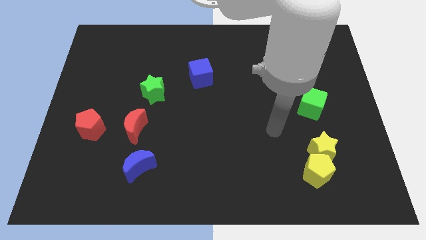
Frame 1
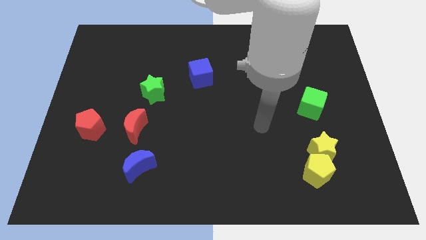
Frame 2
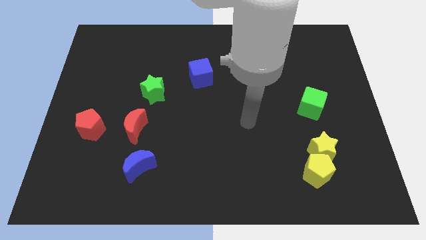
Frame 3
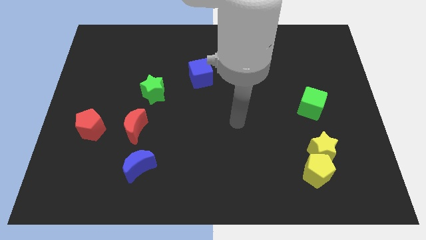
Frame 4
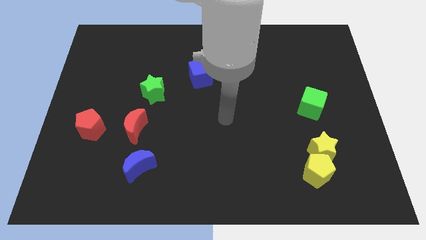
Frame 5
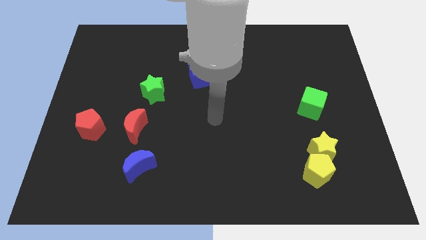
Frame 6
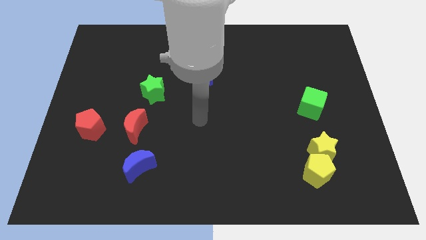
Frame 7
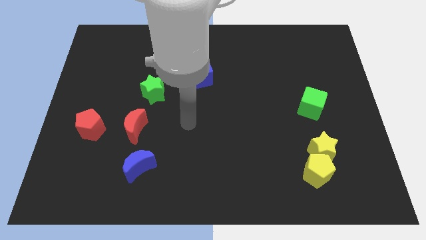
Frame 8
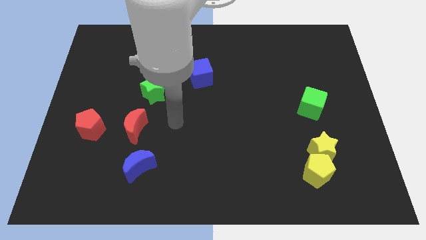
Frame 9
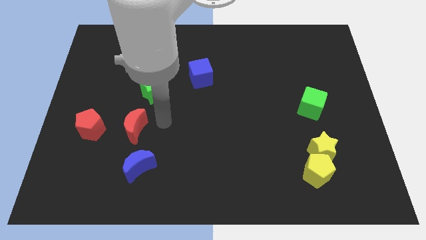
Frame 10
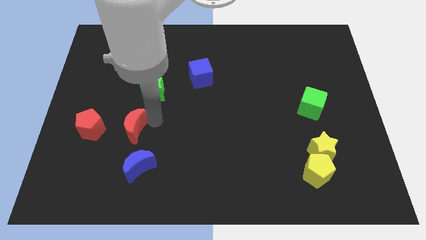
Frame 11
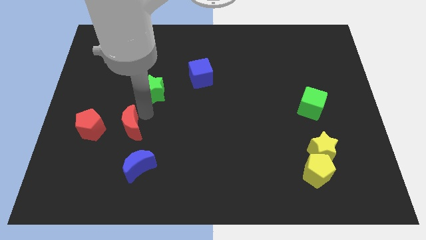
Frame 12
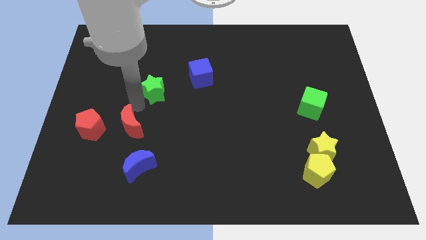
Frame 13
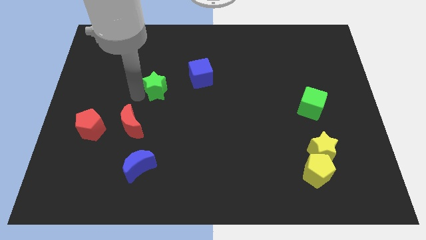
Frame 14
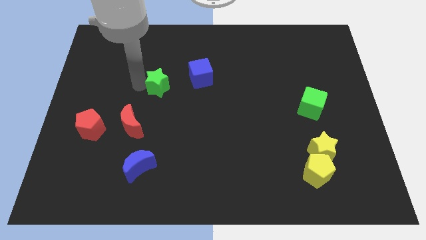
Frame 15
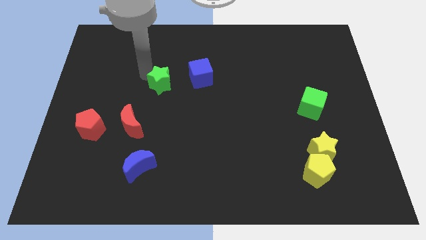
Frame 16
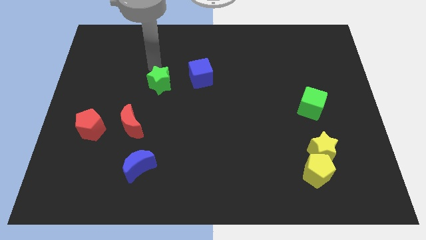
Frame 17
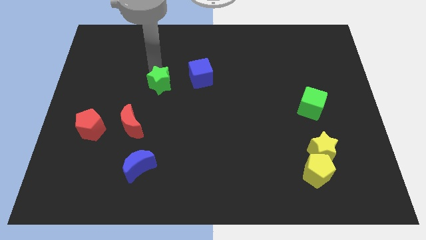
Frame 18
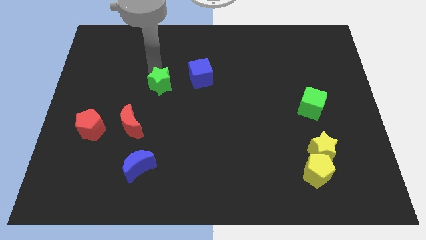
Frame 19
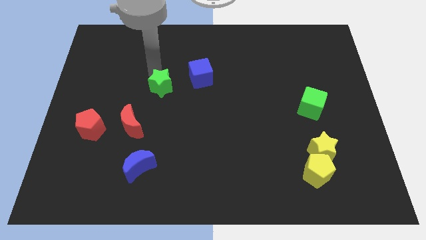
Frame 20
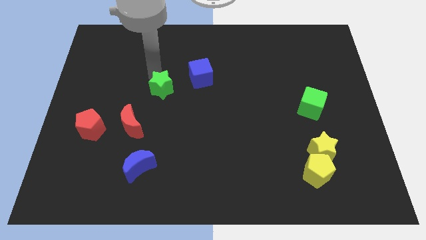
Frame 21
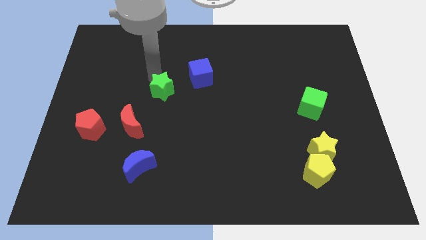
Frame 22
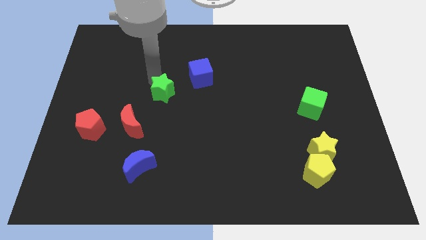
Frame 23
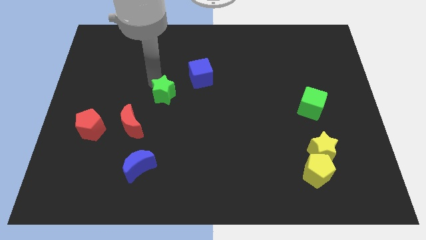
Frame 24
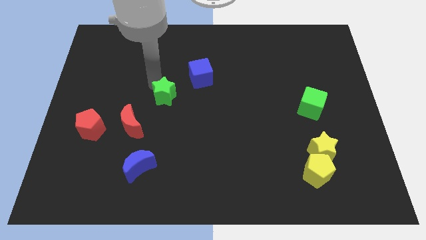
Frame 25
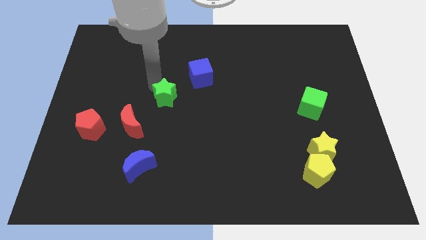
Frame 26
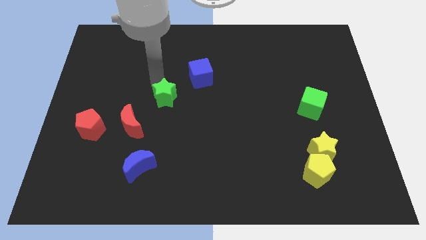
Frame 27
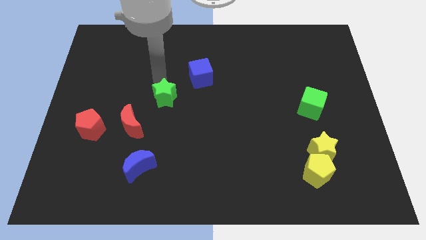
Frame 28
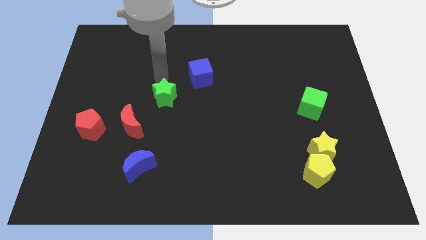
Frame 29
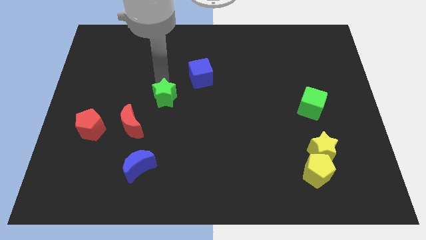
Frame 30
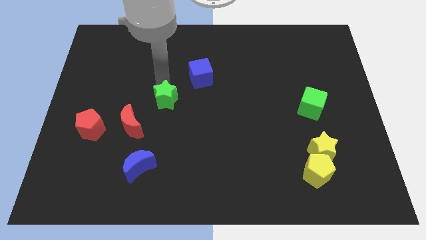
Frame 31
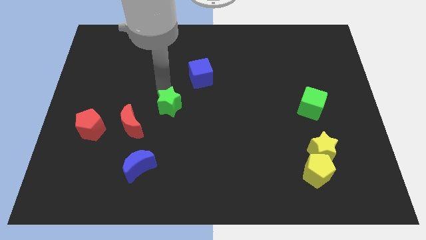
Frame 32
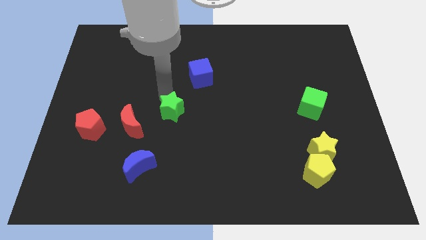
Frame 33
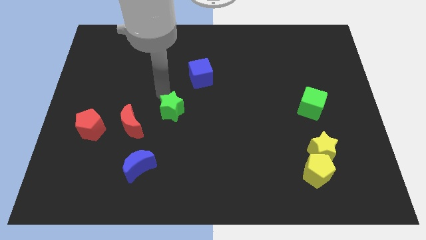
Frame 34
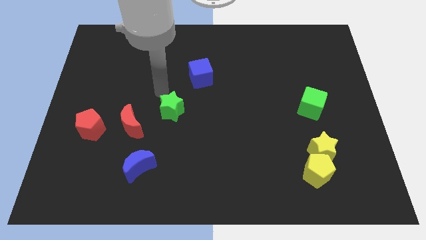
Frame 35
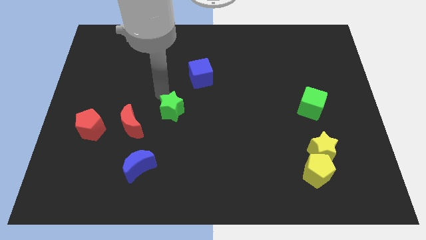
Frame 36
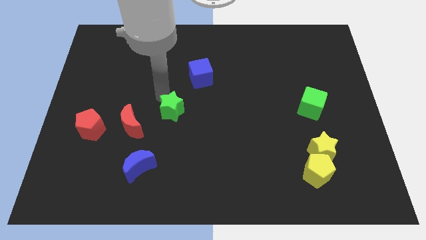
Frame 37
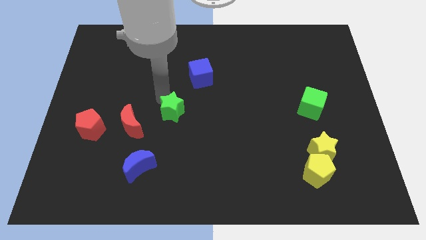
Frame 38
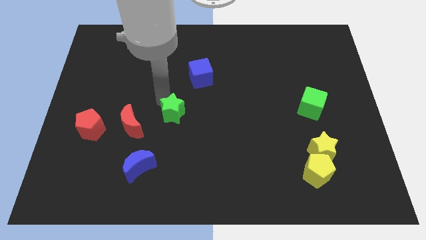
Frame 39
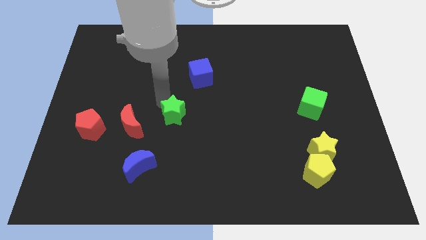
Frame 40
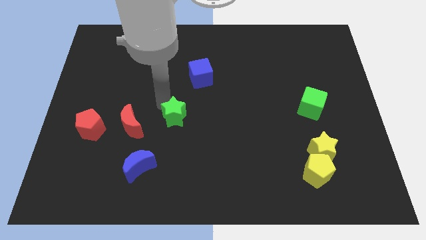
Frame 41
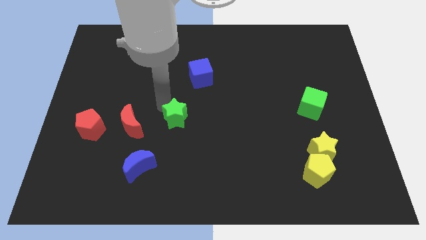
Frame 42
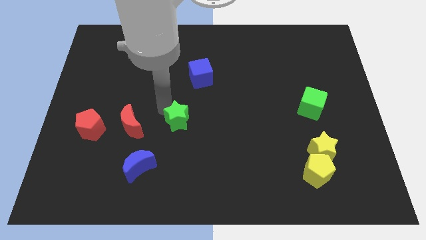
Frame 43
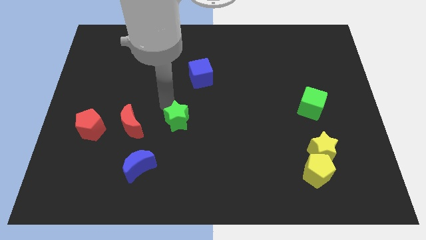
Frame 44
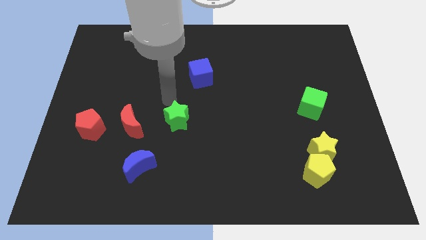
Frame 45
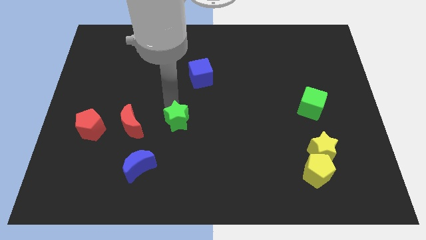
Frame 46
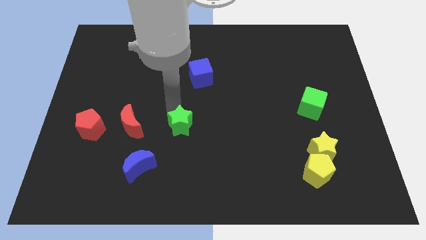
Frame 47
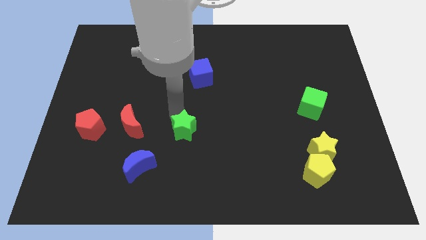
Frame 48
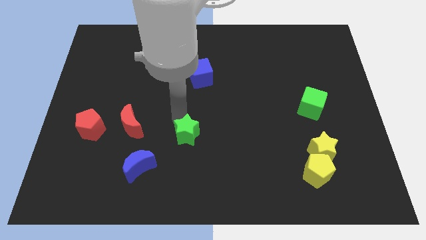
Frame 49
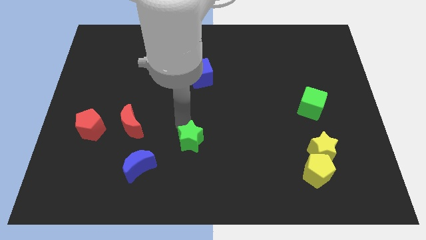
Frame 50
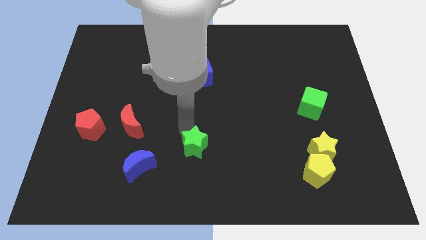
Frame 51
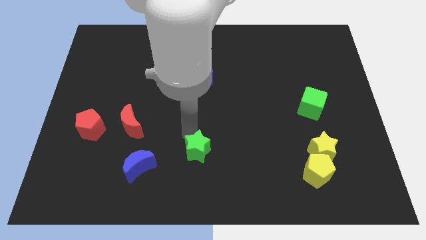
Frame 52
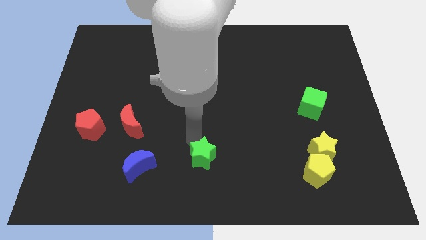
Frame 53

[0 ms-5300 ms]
move the green star to the bottom side

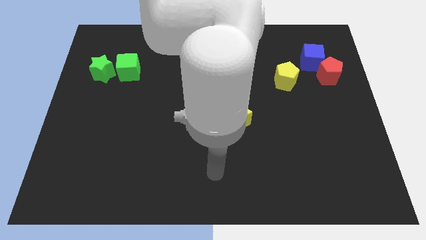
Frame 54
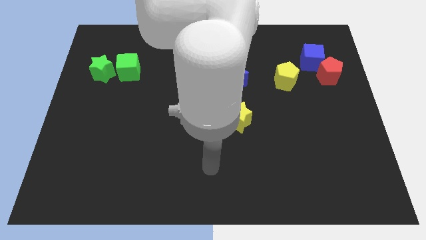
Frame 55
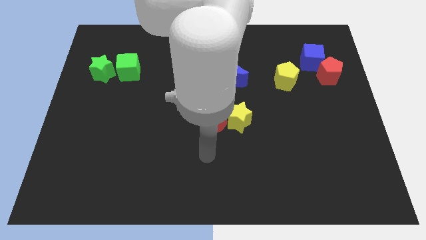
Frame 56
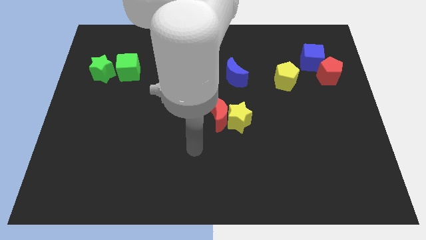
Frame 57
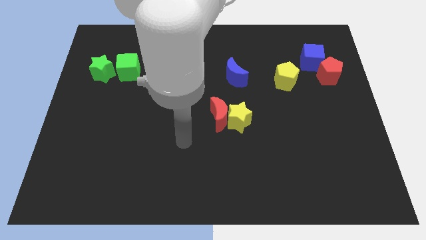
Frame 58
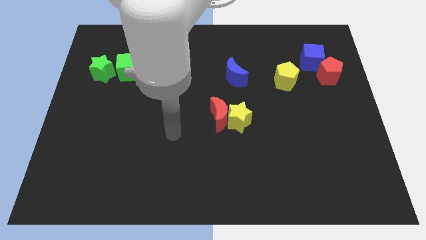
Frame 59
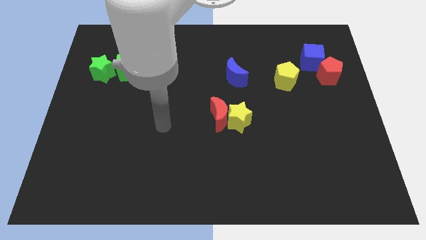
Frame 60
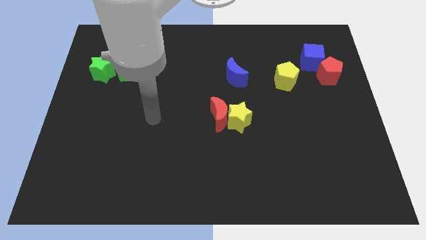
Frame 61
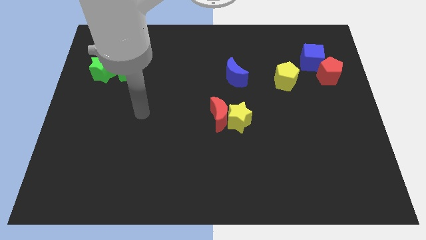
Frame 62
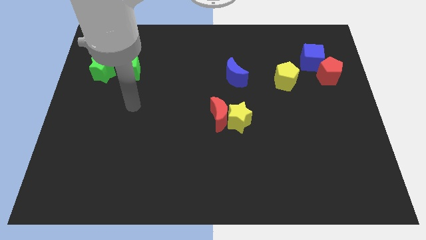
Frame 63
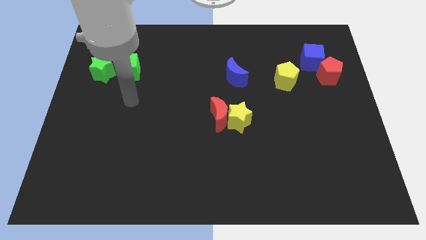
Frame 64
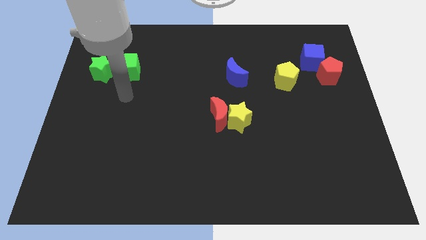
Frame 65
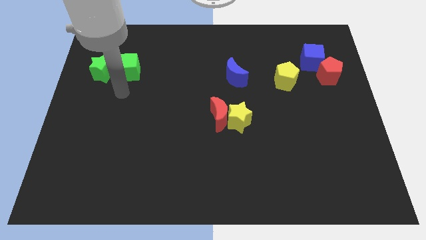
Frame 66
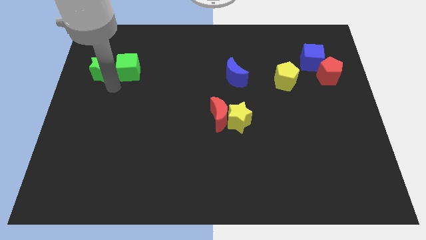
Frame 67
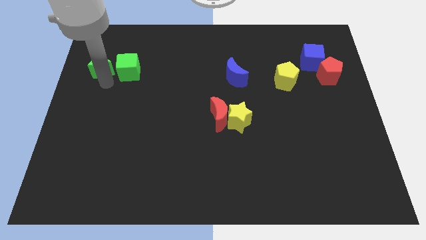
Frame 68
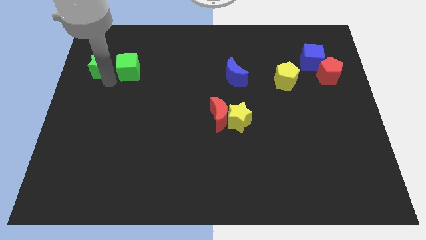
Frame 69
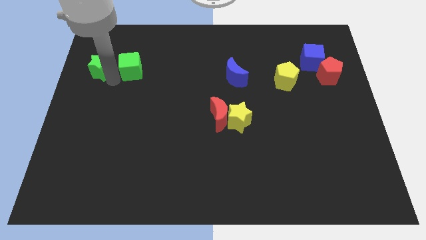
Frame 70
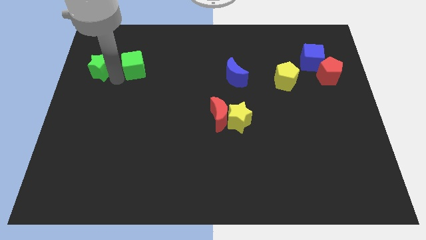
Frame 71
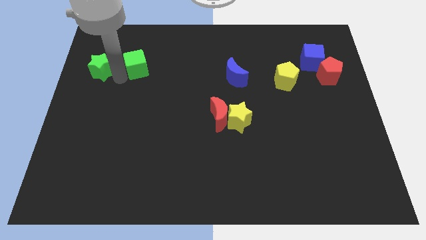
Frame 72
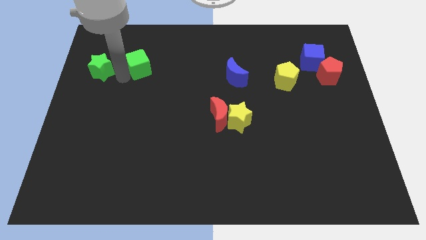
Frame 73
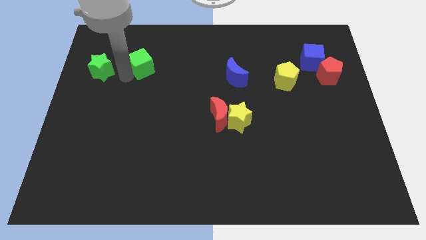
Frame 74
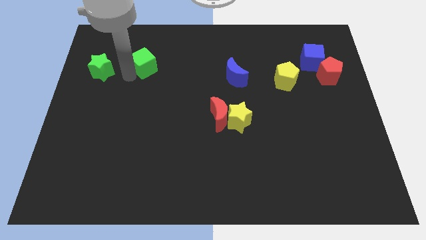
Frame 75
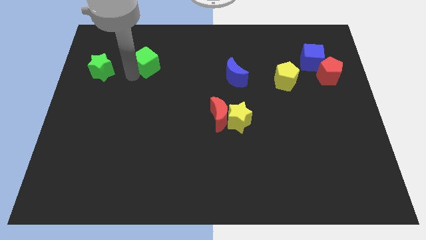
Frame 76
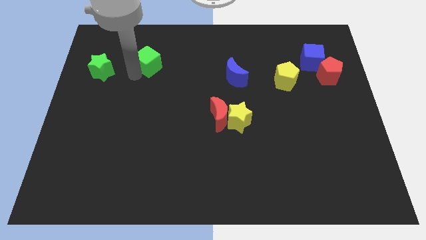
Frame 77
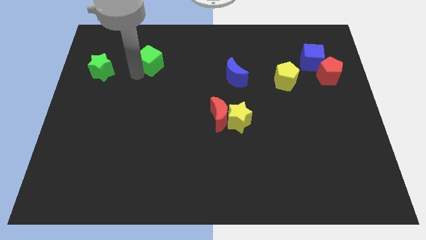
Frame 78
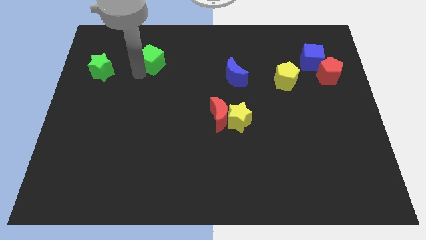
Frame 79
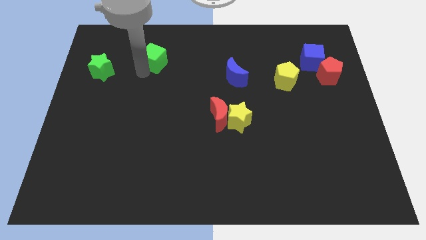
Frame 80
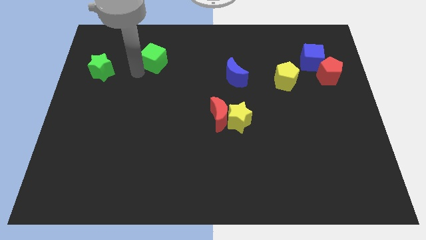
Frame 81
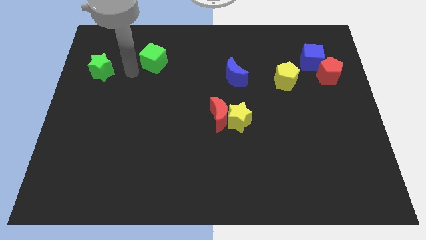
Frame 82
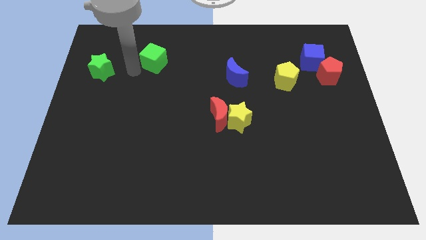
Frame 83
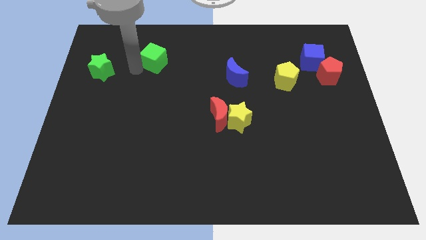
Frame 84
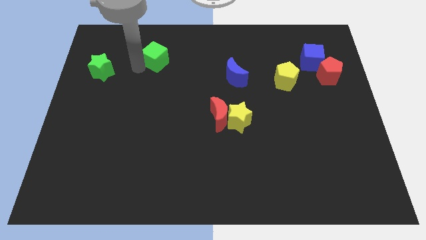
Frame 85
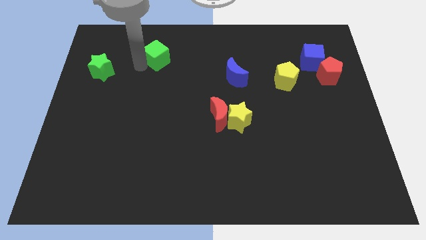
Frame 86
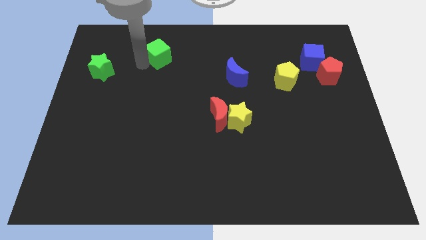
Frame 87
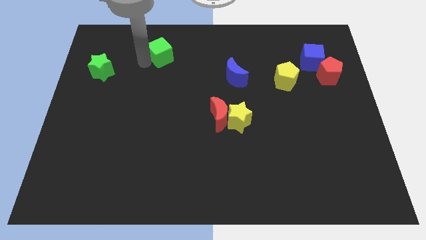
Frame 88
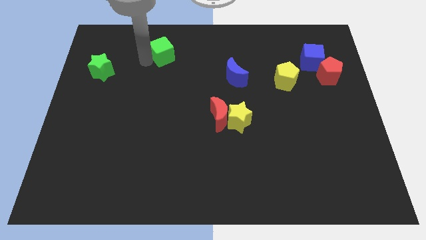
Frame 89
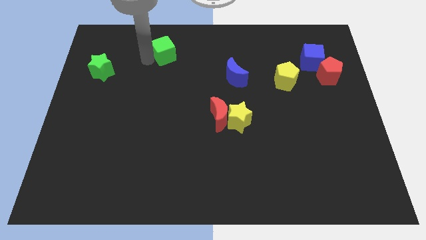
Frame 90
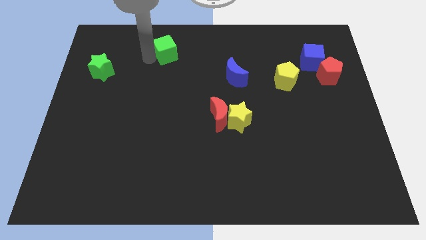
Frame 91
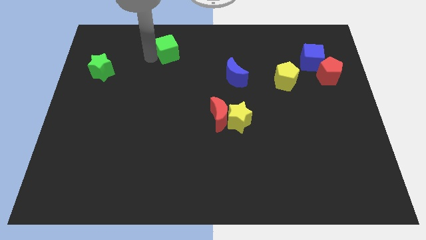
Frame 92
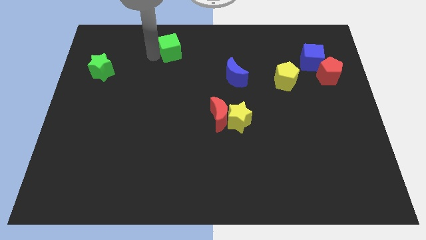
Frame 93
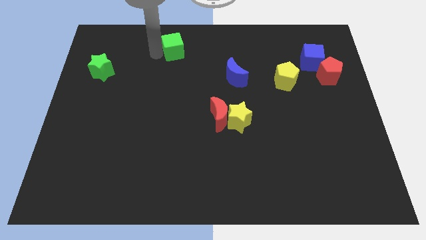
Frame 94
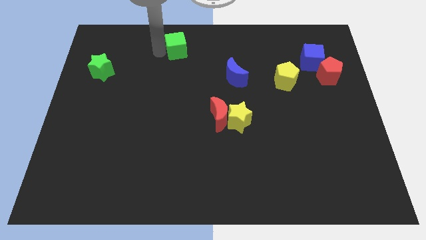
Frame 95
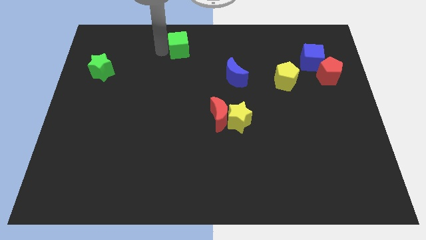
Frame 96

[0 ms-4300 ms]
slide the green cube to the towards your base
